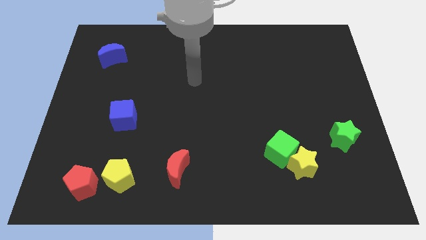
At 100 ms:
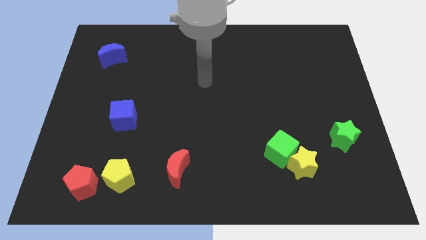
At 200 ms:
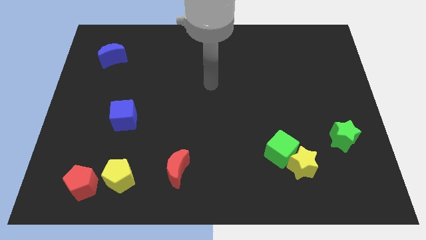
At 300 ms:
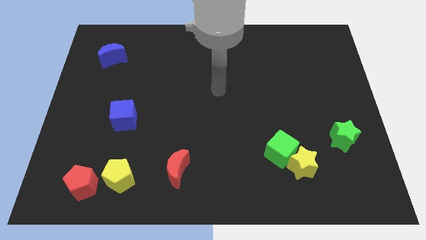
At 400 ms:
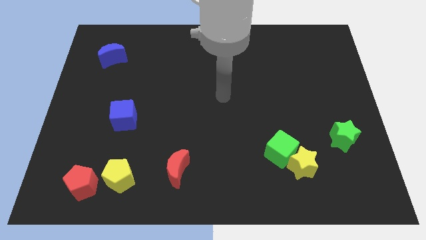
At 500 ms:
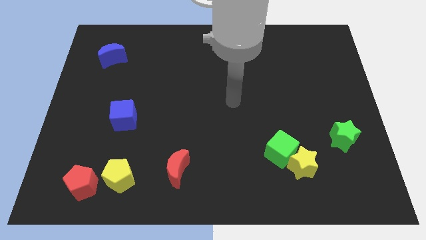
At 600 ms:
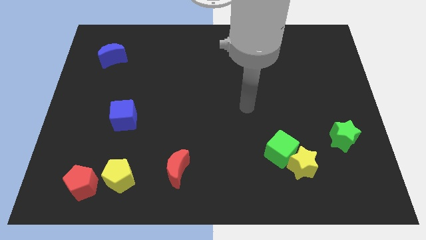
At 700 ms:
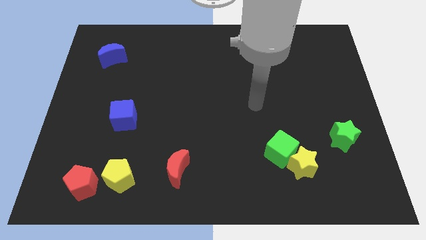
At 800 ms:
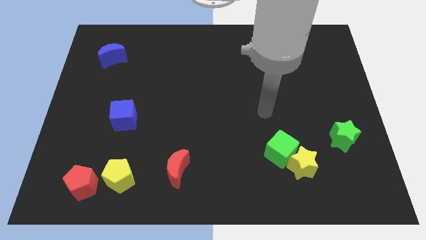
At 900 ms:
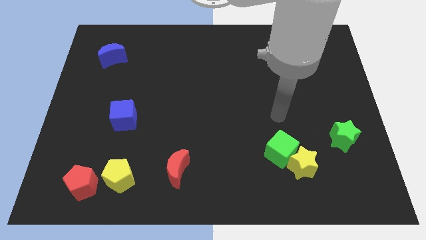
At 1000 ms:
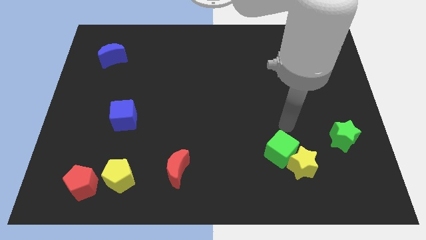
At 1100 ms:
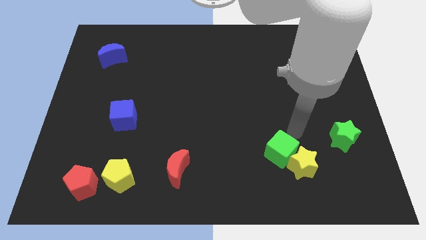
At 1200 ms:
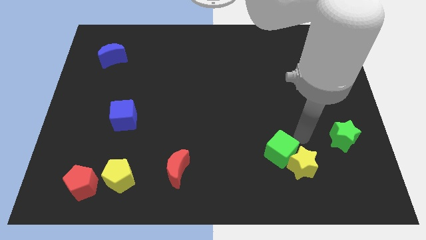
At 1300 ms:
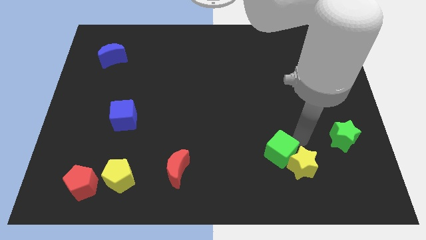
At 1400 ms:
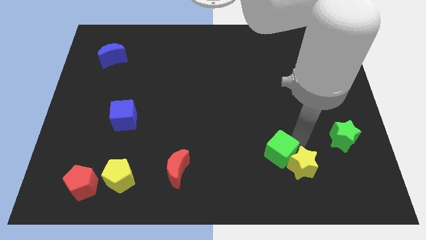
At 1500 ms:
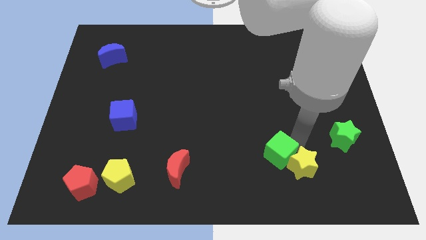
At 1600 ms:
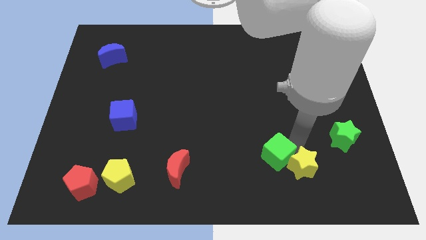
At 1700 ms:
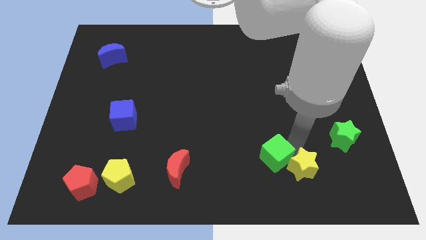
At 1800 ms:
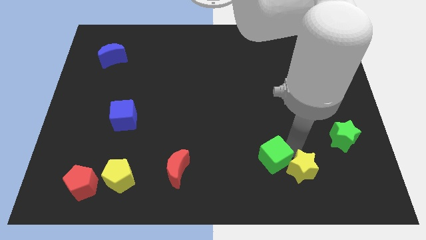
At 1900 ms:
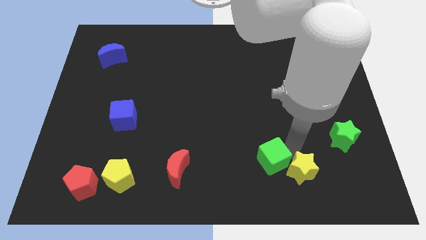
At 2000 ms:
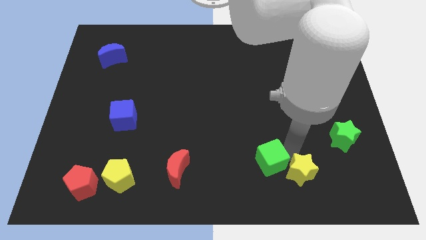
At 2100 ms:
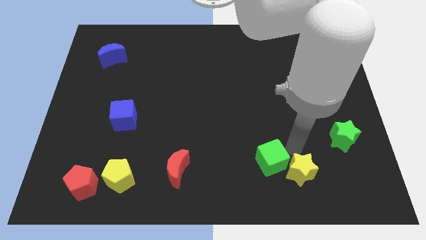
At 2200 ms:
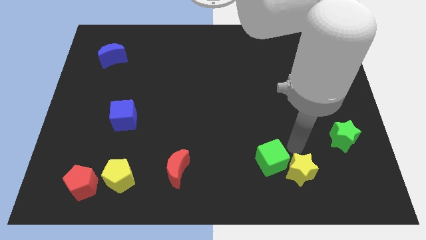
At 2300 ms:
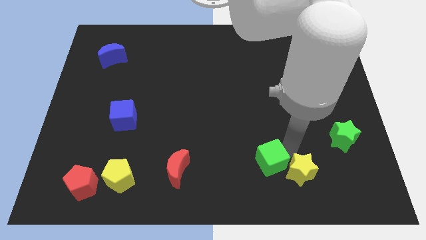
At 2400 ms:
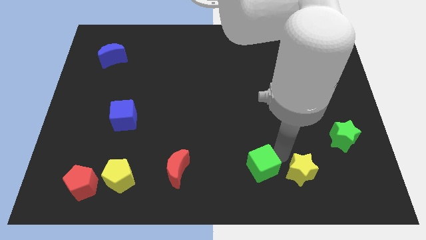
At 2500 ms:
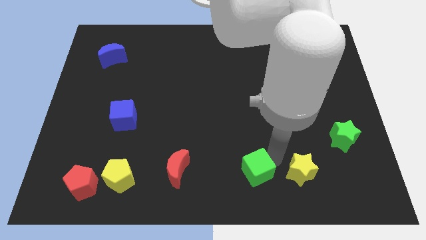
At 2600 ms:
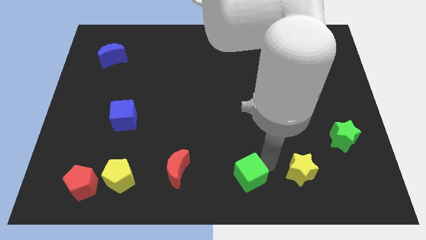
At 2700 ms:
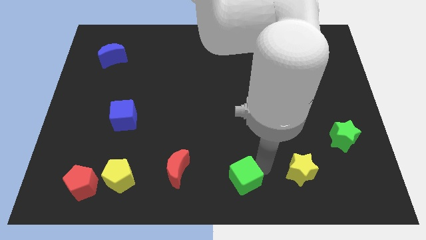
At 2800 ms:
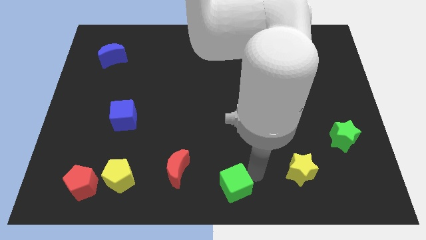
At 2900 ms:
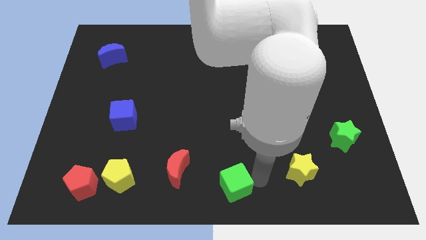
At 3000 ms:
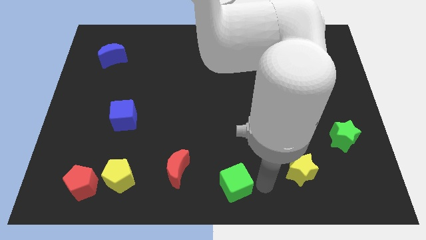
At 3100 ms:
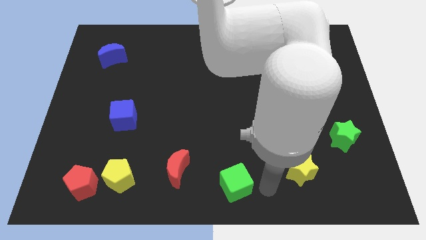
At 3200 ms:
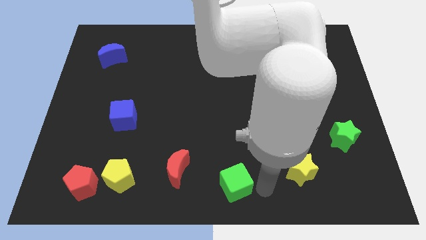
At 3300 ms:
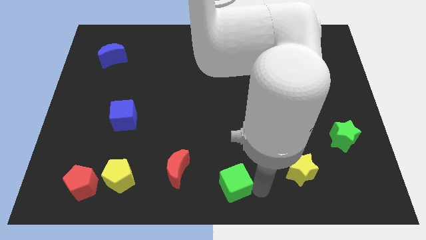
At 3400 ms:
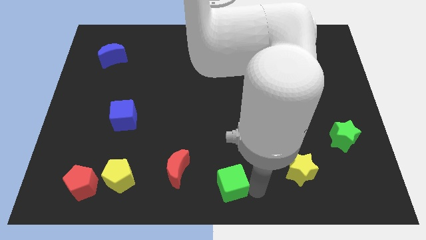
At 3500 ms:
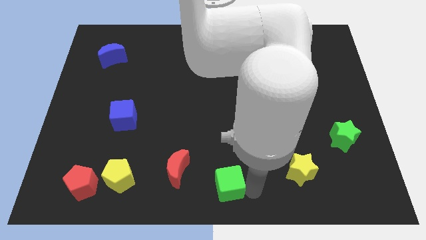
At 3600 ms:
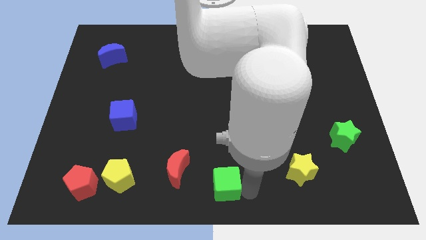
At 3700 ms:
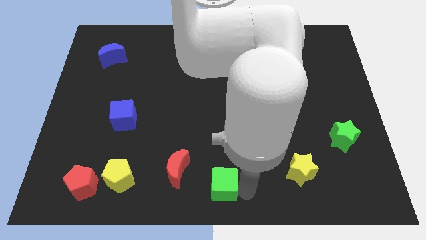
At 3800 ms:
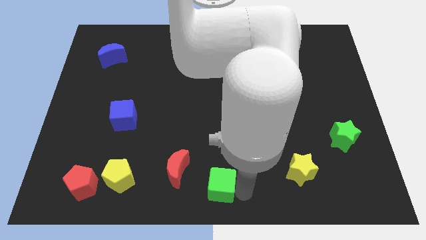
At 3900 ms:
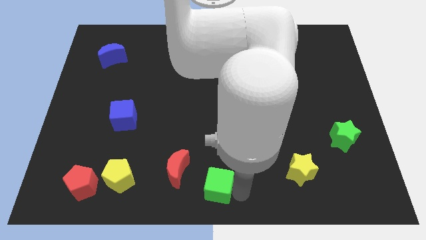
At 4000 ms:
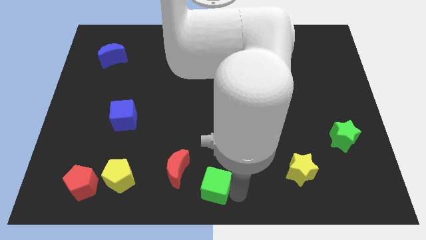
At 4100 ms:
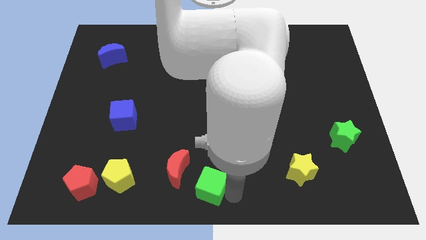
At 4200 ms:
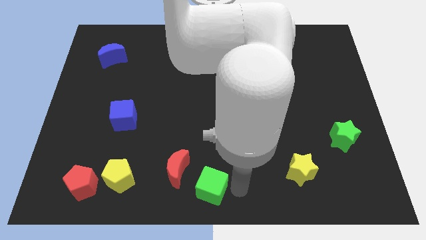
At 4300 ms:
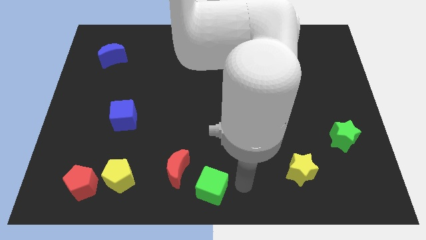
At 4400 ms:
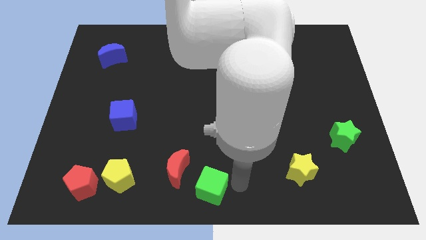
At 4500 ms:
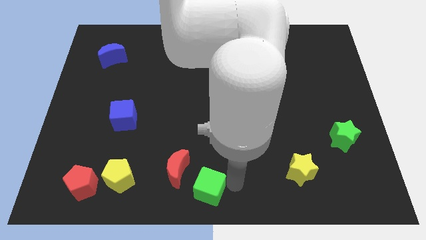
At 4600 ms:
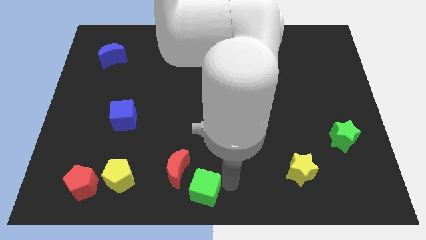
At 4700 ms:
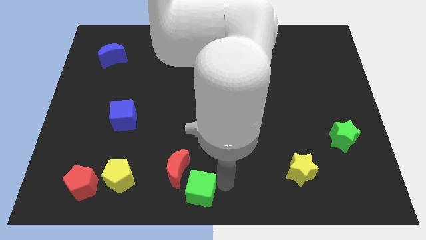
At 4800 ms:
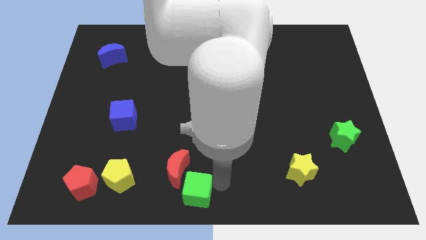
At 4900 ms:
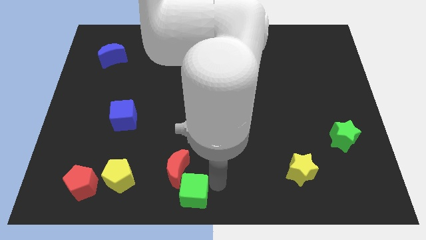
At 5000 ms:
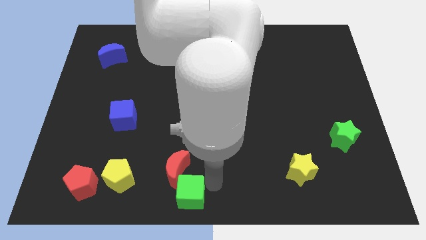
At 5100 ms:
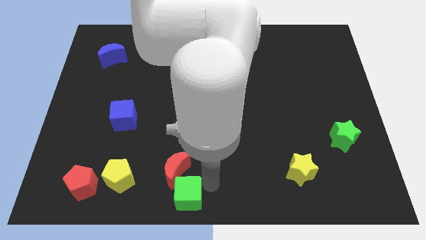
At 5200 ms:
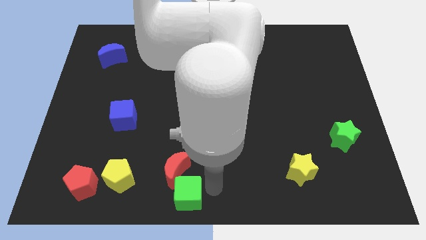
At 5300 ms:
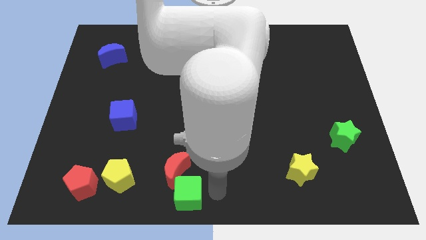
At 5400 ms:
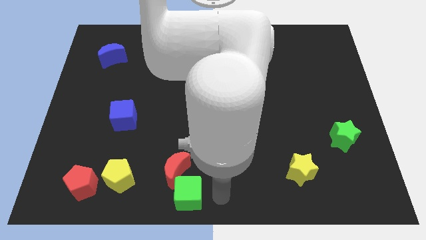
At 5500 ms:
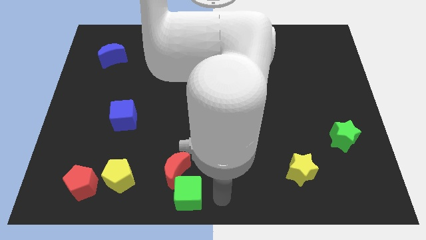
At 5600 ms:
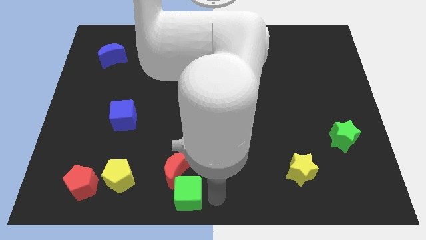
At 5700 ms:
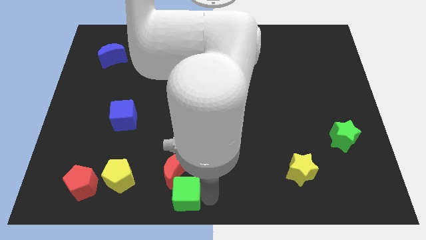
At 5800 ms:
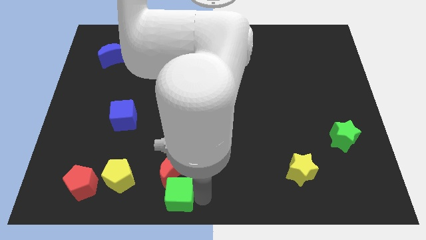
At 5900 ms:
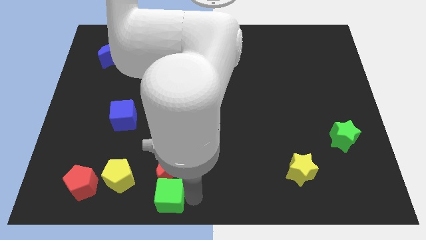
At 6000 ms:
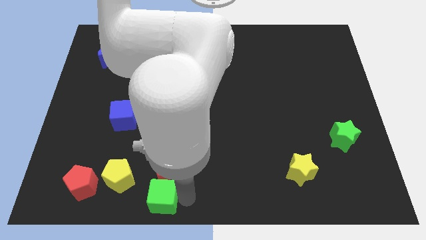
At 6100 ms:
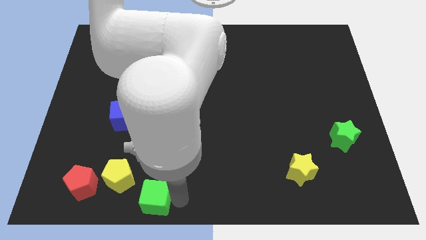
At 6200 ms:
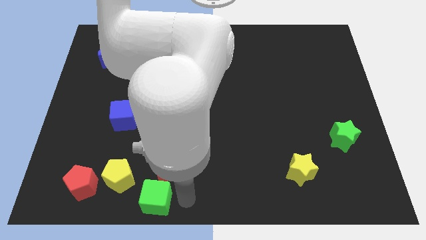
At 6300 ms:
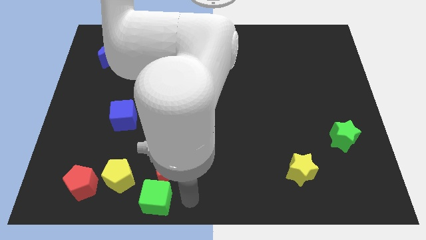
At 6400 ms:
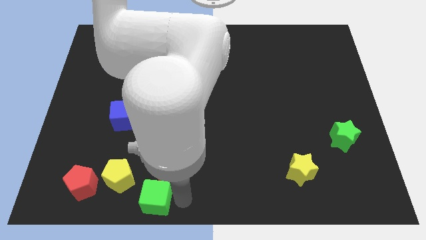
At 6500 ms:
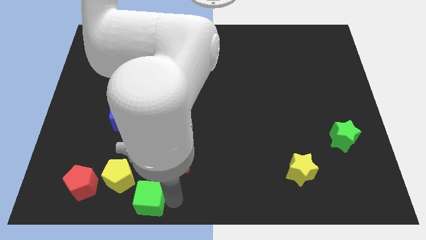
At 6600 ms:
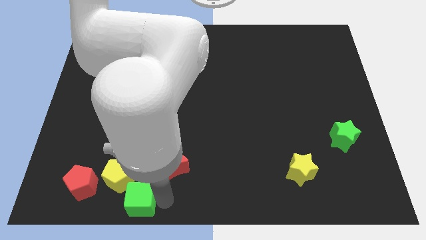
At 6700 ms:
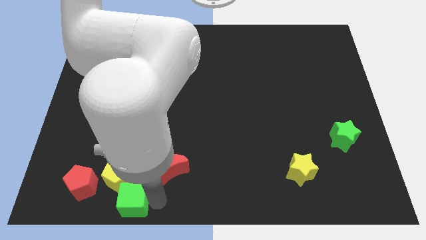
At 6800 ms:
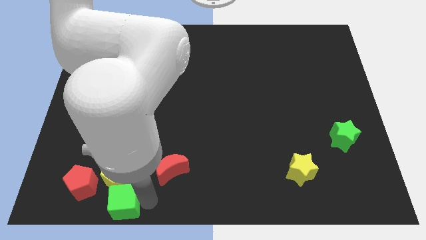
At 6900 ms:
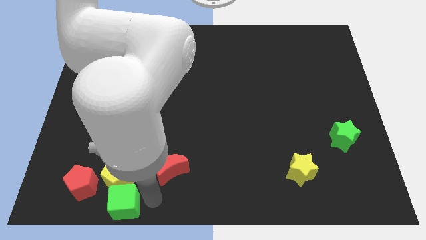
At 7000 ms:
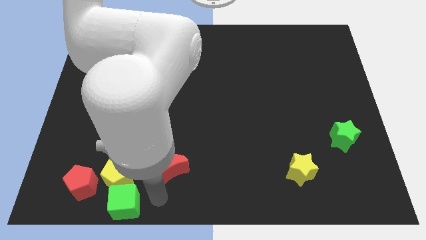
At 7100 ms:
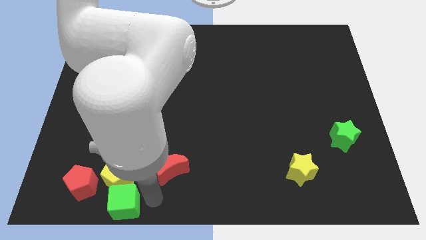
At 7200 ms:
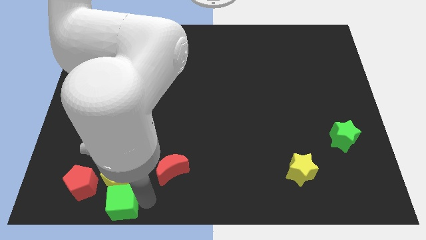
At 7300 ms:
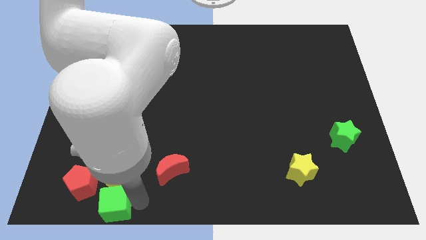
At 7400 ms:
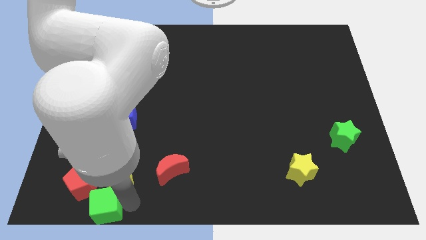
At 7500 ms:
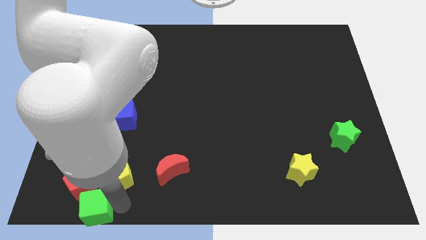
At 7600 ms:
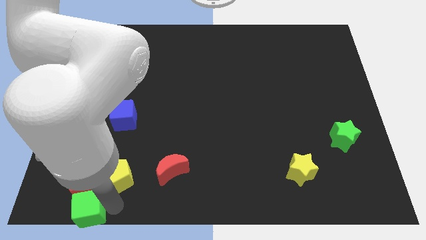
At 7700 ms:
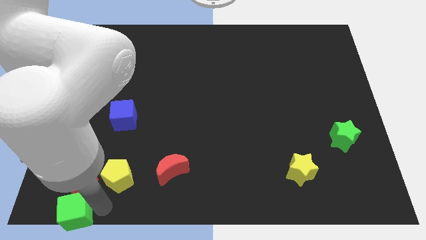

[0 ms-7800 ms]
push the green cube to the bottom left of the board
